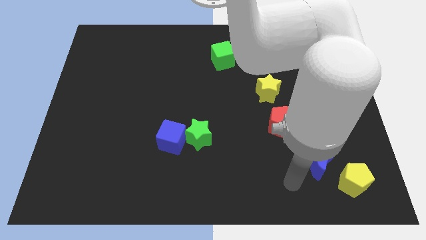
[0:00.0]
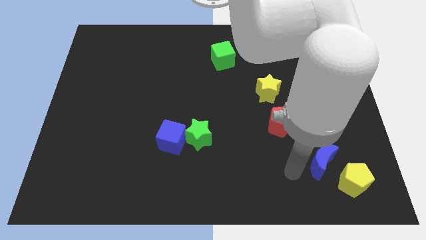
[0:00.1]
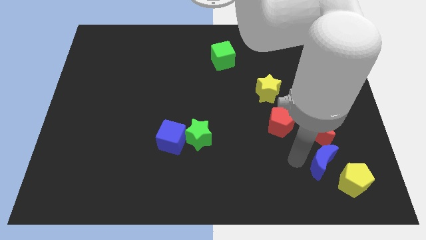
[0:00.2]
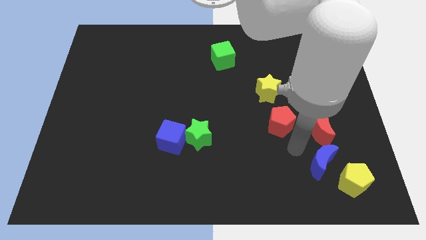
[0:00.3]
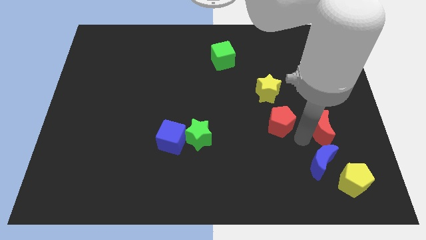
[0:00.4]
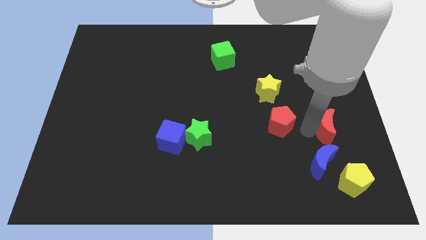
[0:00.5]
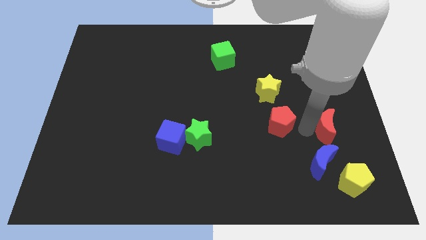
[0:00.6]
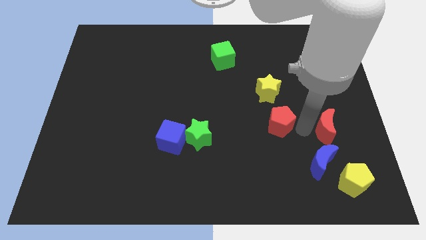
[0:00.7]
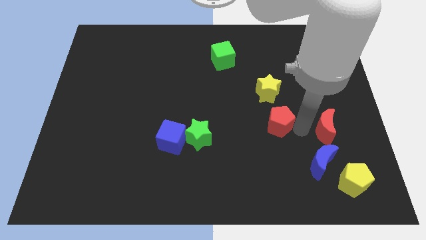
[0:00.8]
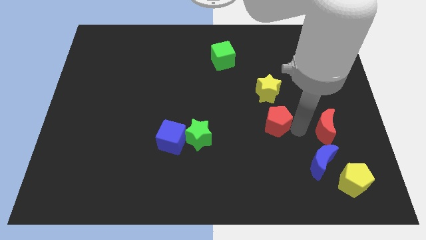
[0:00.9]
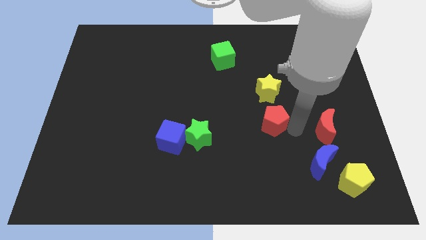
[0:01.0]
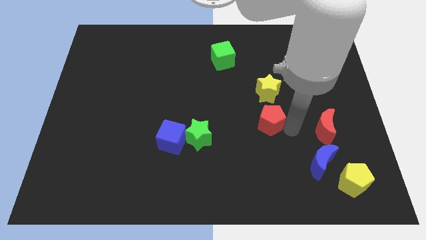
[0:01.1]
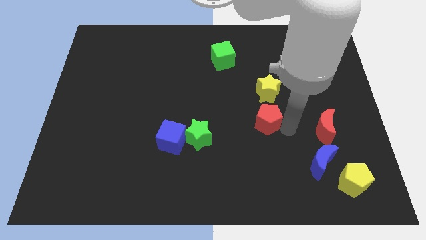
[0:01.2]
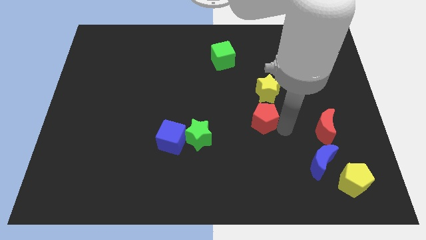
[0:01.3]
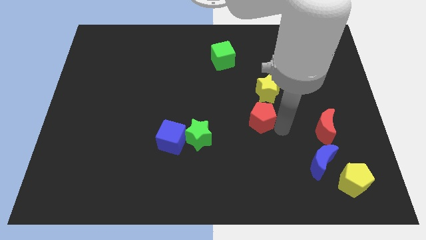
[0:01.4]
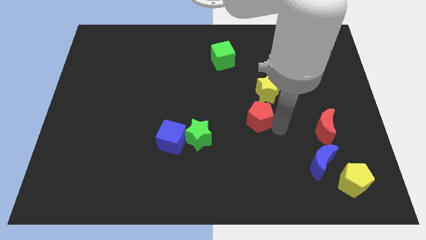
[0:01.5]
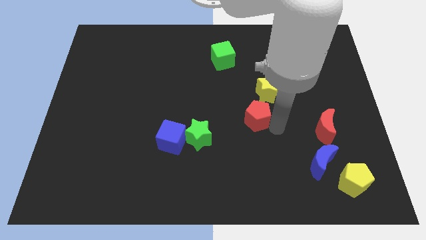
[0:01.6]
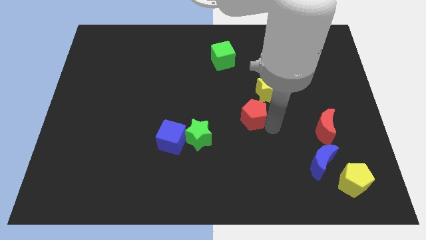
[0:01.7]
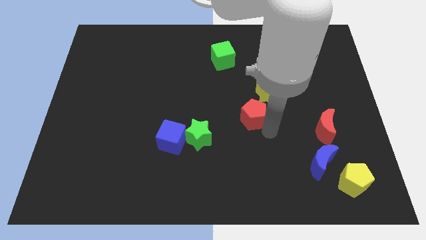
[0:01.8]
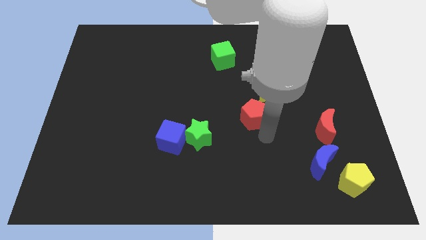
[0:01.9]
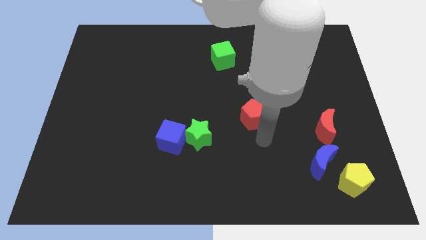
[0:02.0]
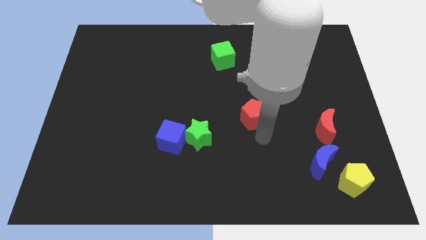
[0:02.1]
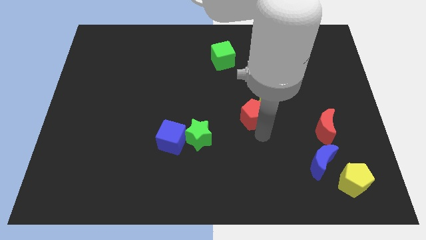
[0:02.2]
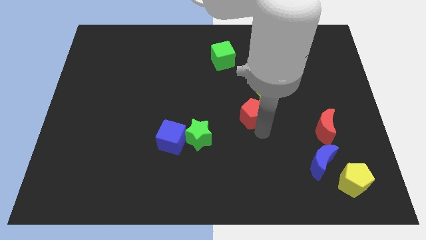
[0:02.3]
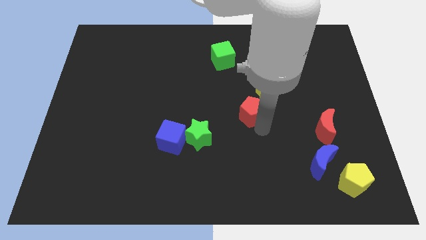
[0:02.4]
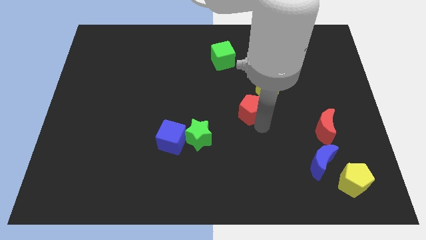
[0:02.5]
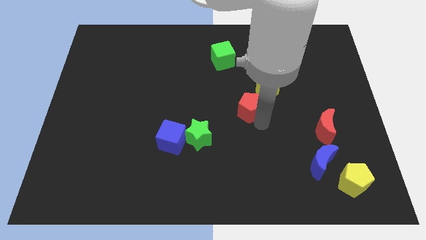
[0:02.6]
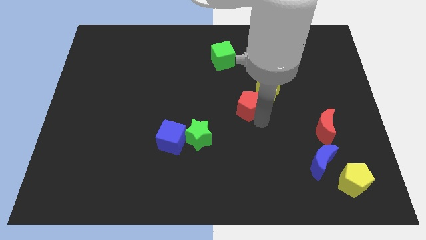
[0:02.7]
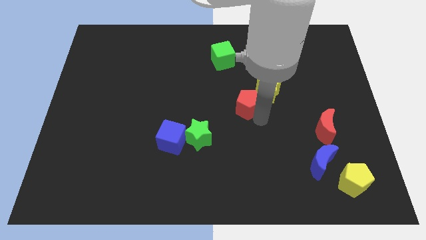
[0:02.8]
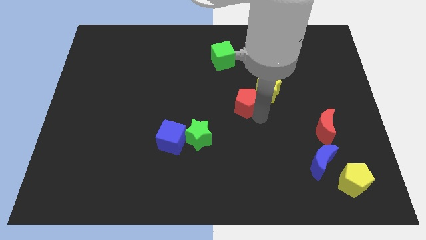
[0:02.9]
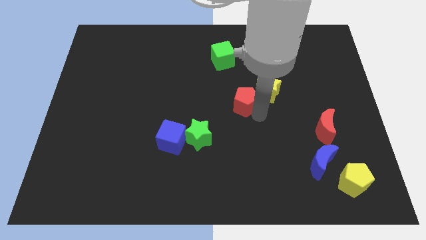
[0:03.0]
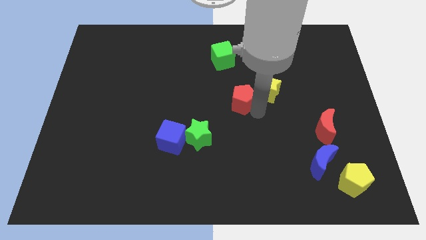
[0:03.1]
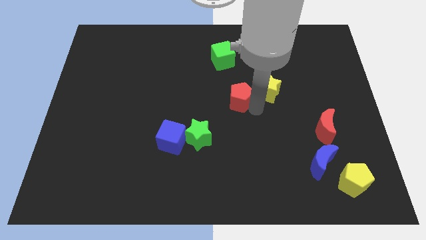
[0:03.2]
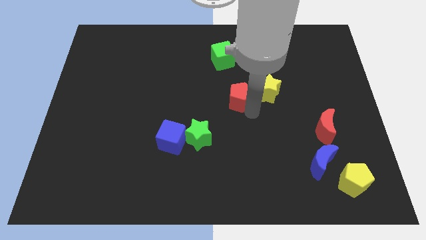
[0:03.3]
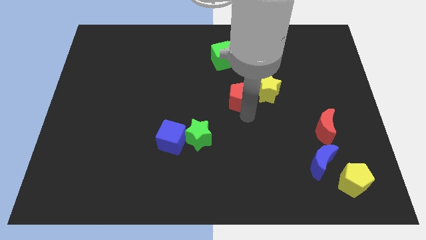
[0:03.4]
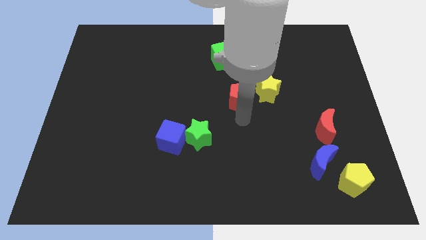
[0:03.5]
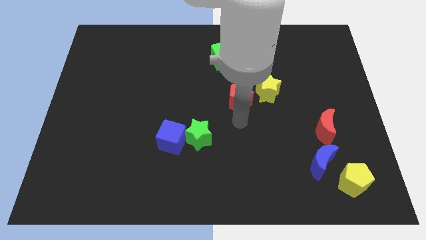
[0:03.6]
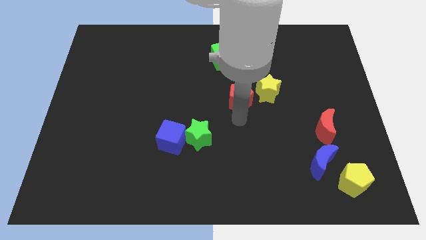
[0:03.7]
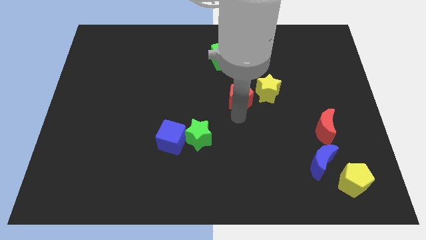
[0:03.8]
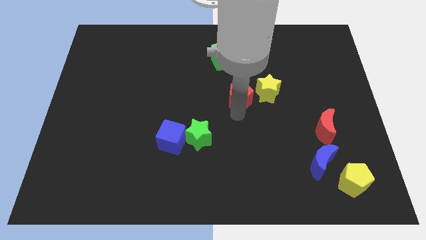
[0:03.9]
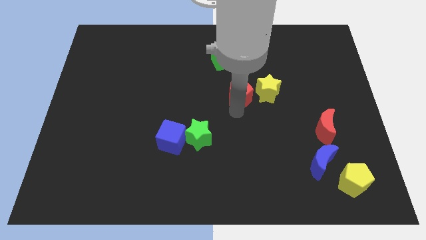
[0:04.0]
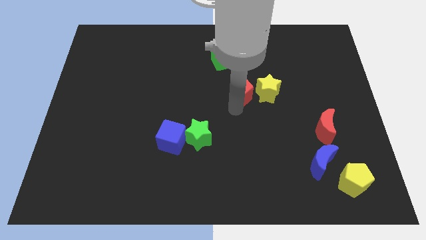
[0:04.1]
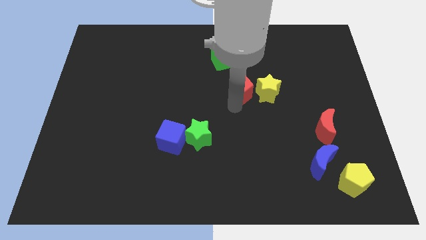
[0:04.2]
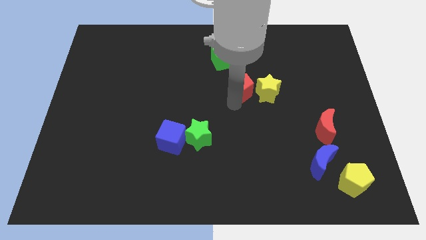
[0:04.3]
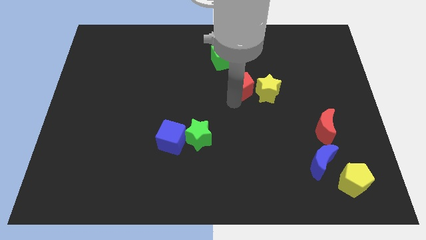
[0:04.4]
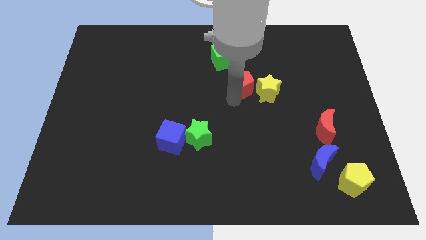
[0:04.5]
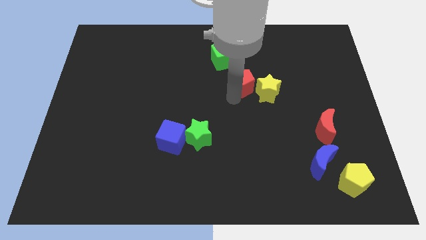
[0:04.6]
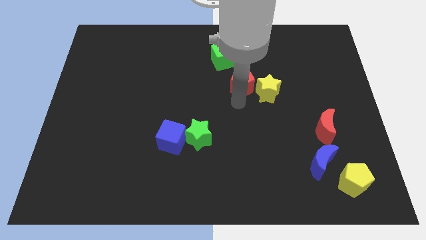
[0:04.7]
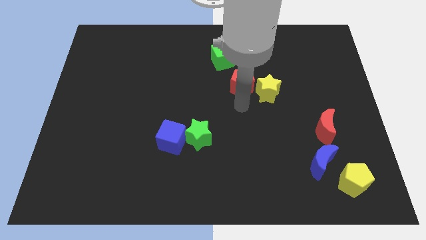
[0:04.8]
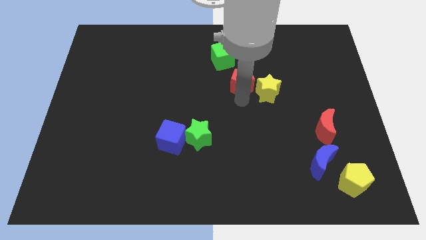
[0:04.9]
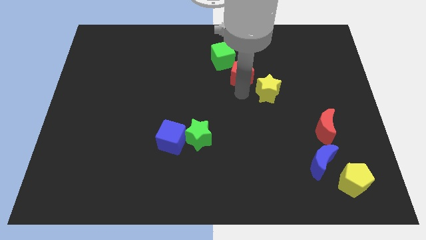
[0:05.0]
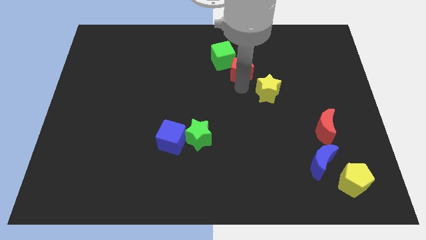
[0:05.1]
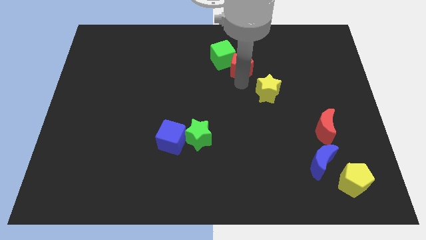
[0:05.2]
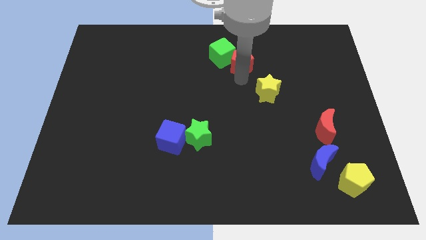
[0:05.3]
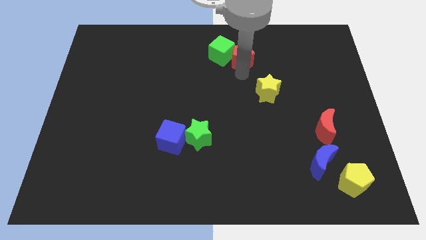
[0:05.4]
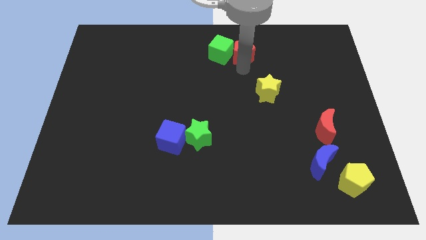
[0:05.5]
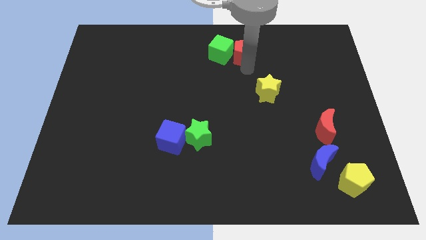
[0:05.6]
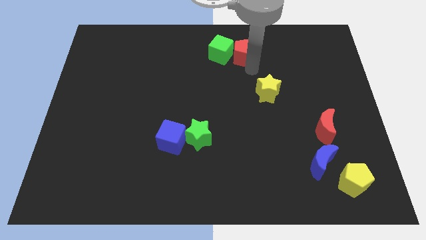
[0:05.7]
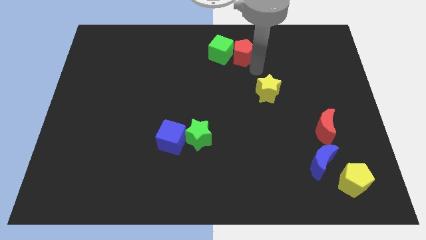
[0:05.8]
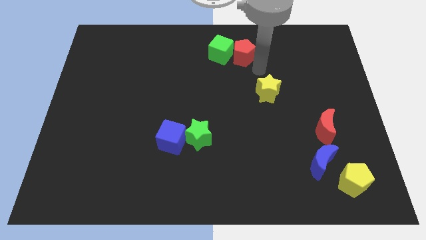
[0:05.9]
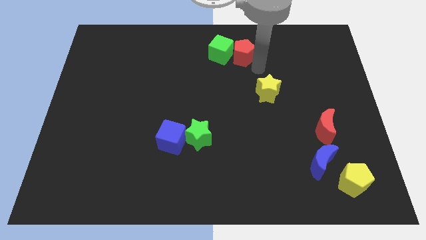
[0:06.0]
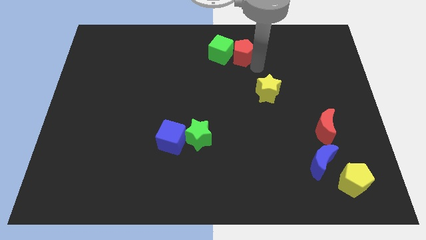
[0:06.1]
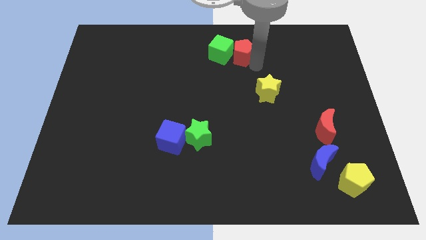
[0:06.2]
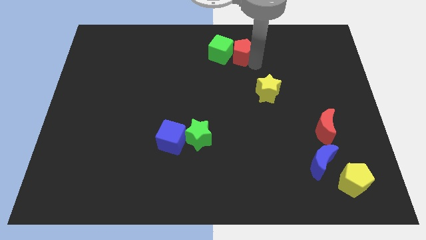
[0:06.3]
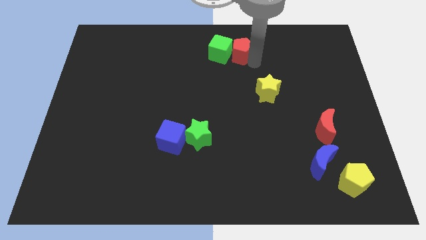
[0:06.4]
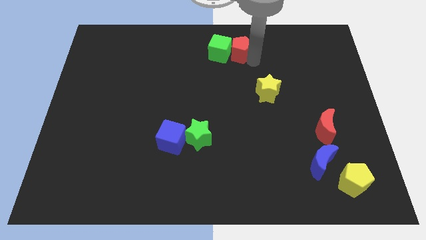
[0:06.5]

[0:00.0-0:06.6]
put the red pentagon to the top
